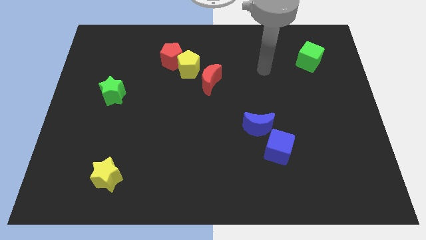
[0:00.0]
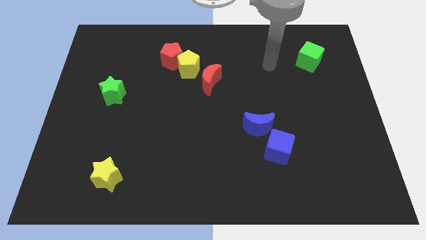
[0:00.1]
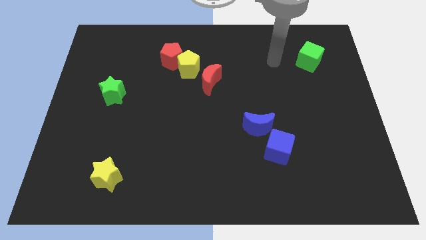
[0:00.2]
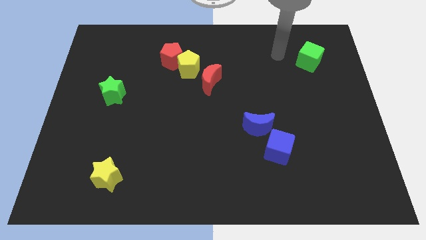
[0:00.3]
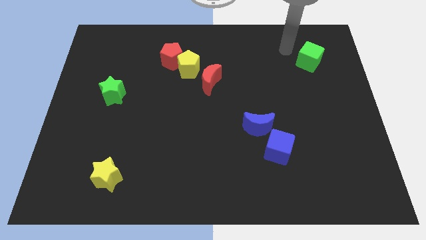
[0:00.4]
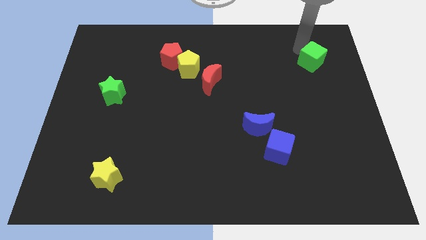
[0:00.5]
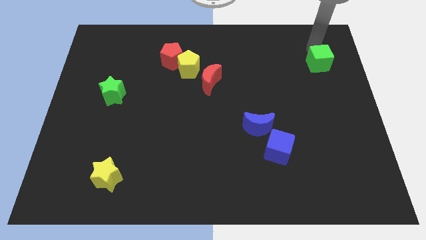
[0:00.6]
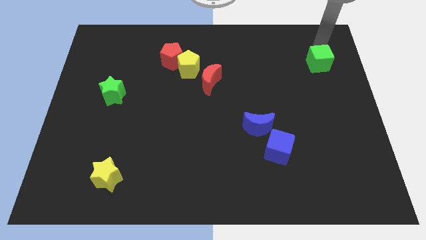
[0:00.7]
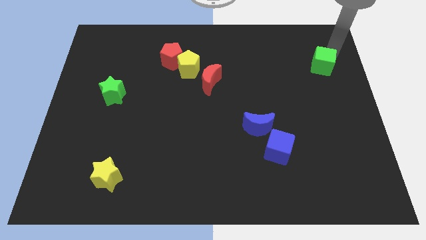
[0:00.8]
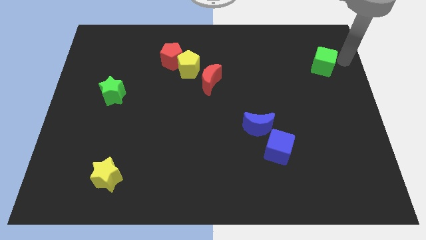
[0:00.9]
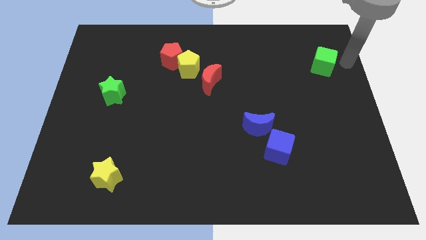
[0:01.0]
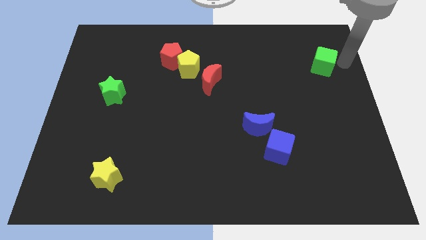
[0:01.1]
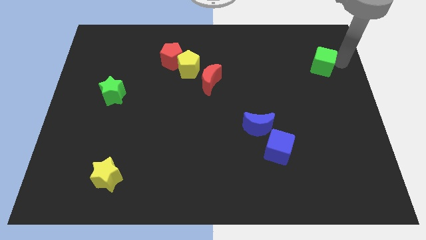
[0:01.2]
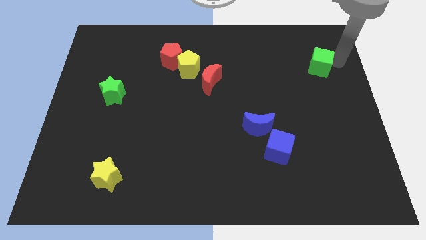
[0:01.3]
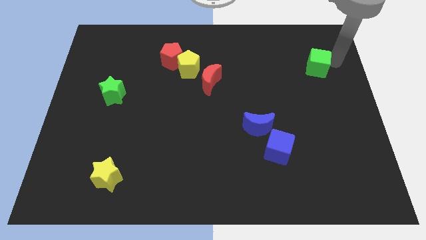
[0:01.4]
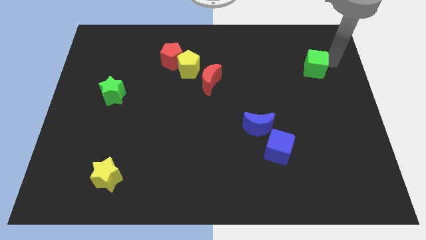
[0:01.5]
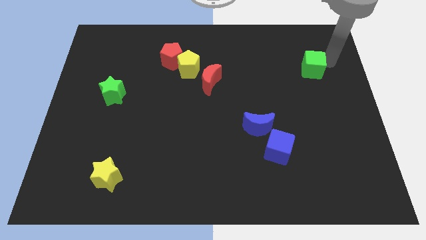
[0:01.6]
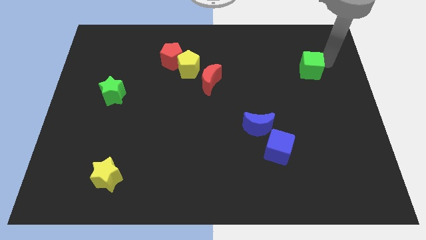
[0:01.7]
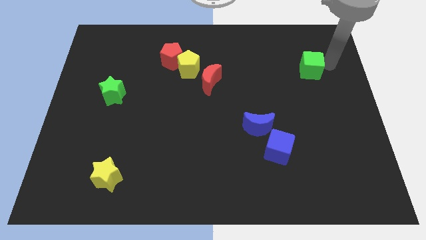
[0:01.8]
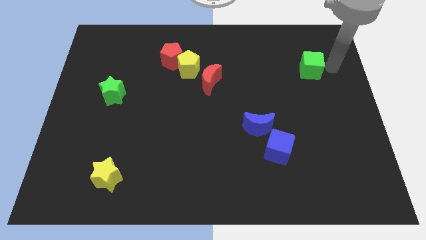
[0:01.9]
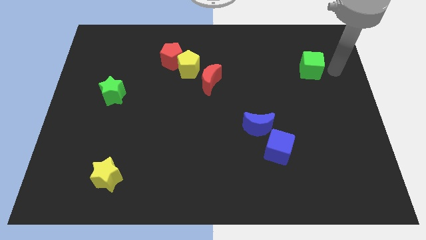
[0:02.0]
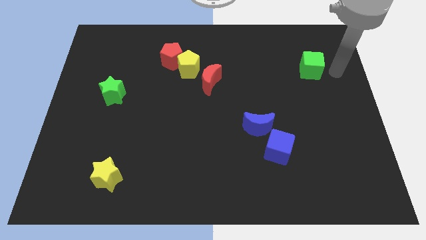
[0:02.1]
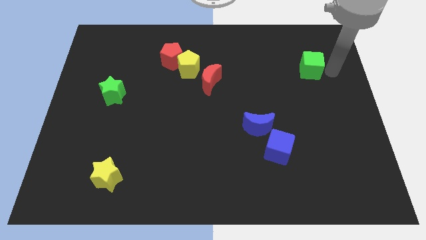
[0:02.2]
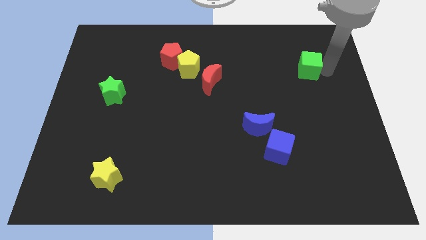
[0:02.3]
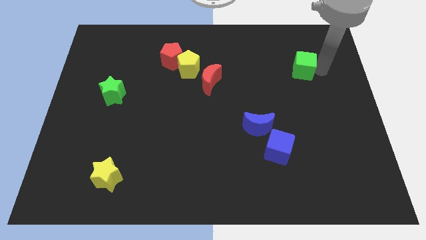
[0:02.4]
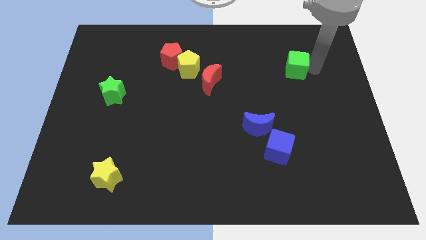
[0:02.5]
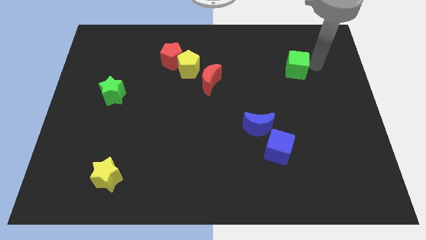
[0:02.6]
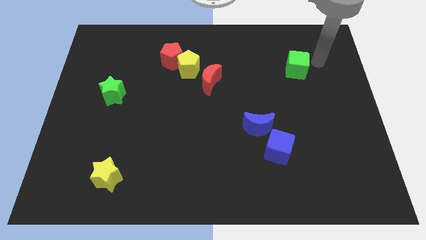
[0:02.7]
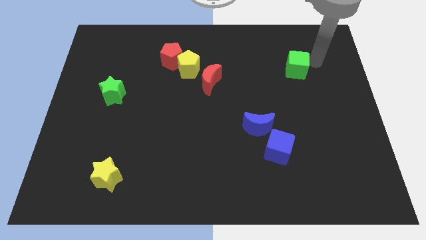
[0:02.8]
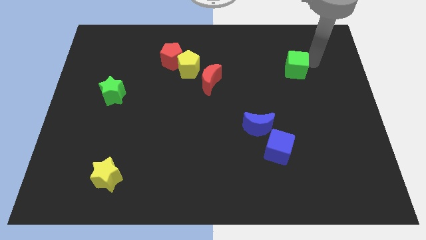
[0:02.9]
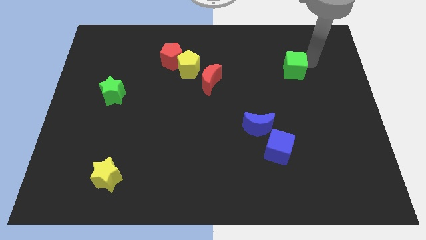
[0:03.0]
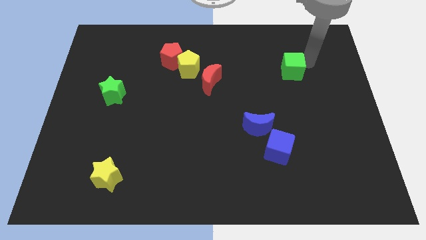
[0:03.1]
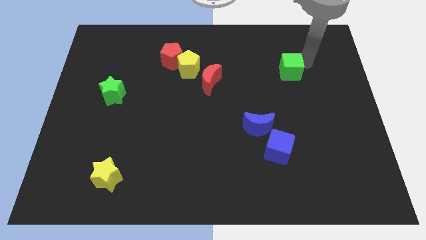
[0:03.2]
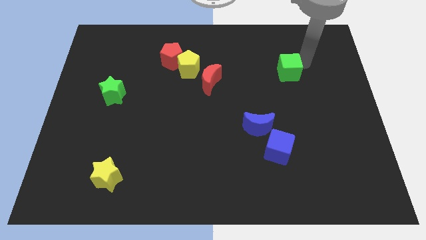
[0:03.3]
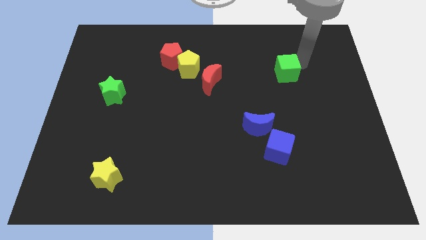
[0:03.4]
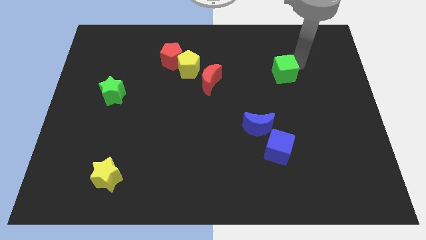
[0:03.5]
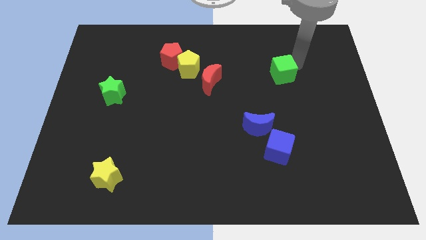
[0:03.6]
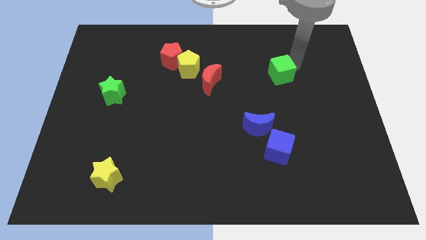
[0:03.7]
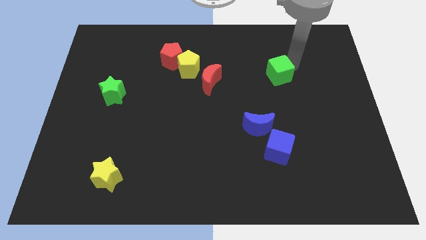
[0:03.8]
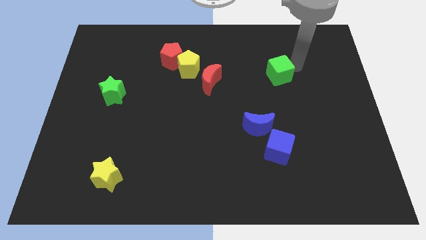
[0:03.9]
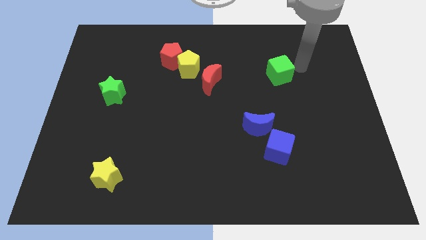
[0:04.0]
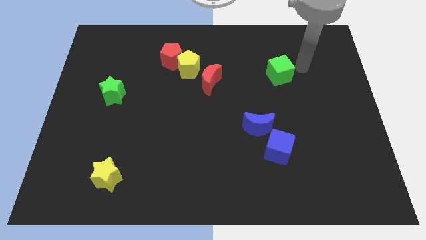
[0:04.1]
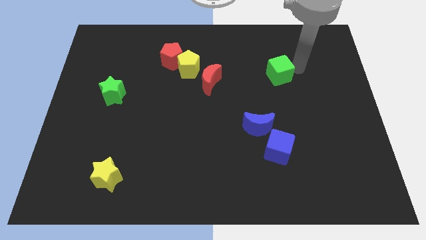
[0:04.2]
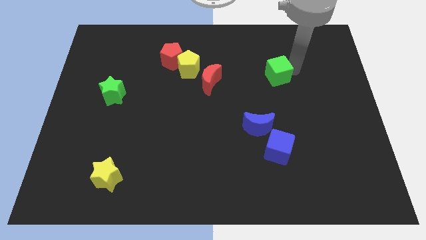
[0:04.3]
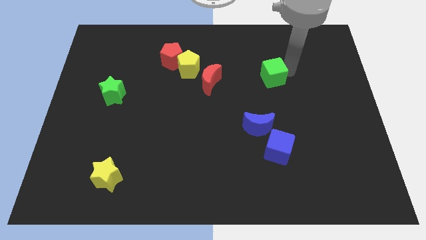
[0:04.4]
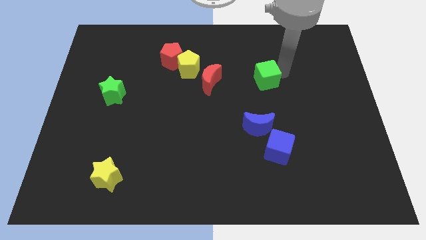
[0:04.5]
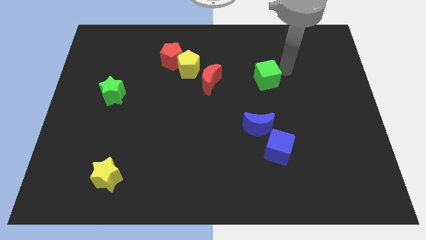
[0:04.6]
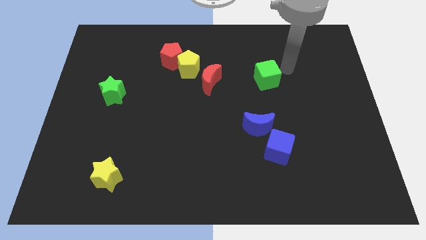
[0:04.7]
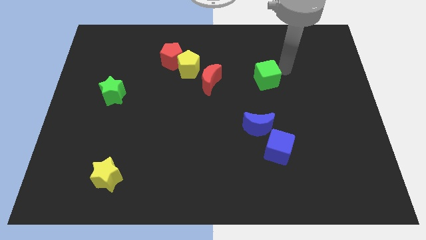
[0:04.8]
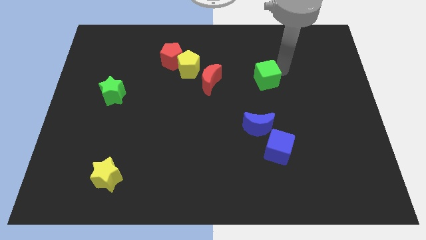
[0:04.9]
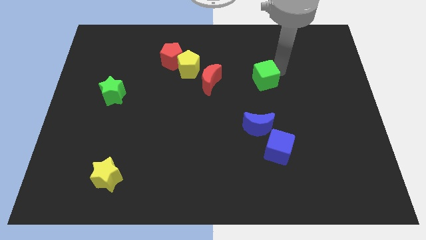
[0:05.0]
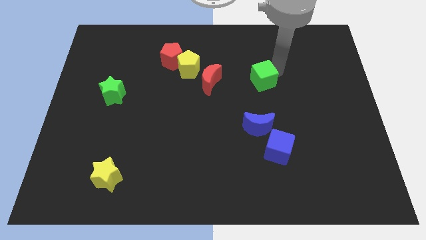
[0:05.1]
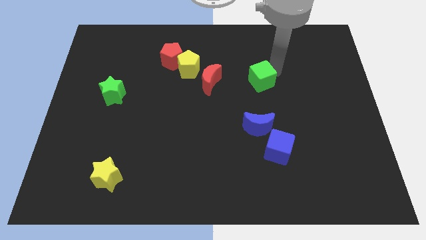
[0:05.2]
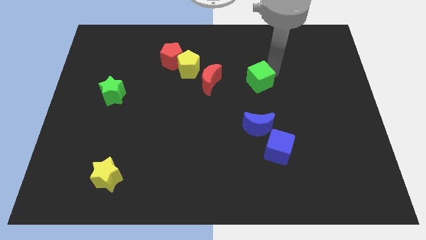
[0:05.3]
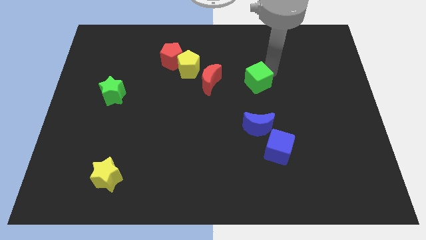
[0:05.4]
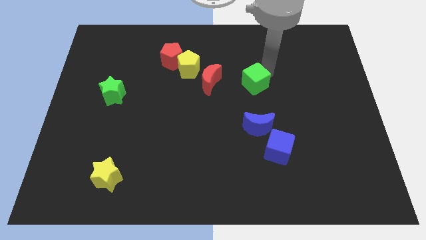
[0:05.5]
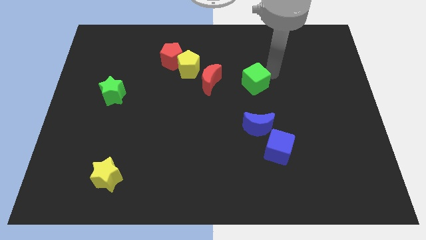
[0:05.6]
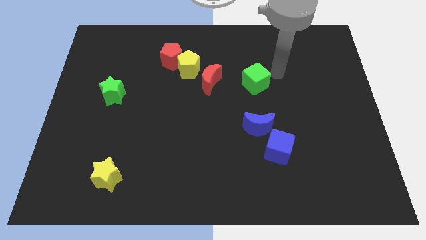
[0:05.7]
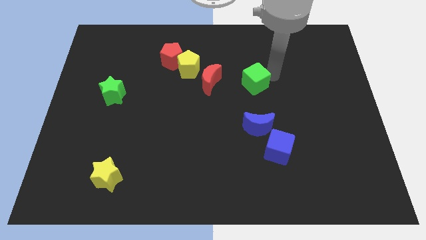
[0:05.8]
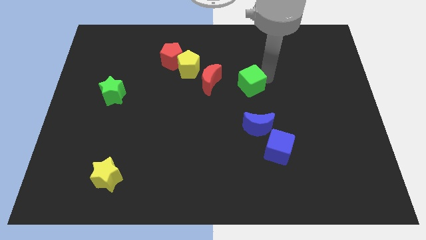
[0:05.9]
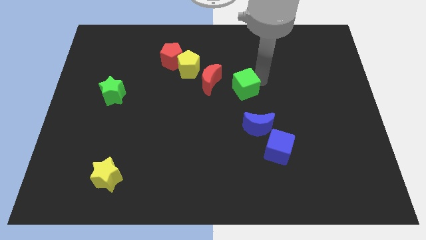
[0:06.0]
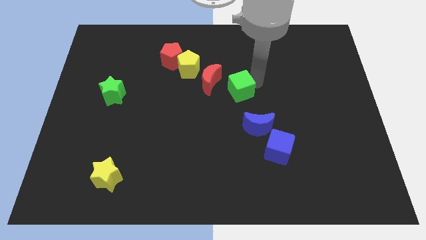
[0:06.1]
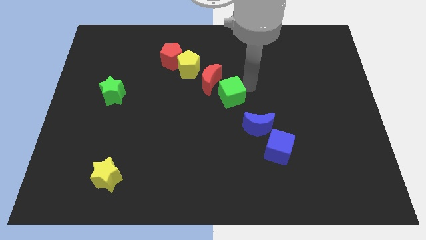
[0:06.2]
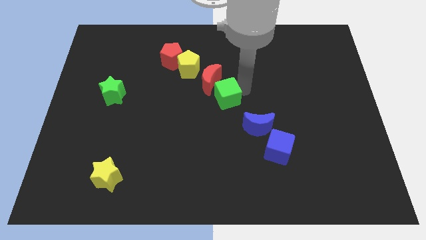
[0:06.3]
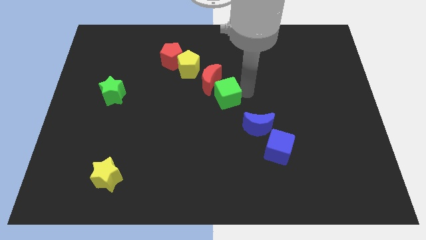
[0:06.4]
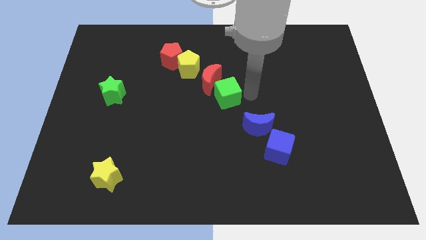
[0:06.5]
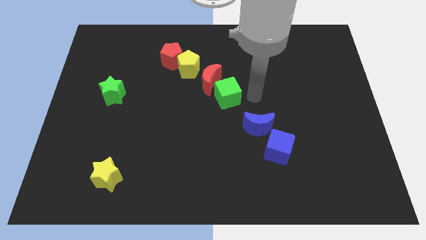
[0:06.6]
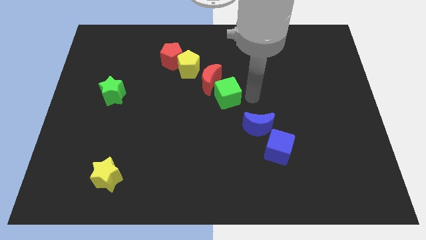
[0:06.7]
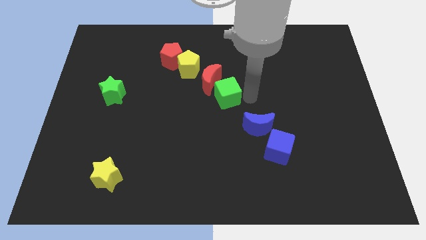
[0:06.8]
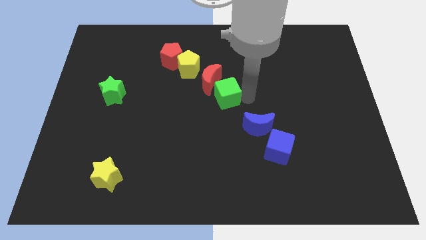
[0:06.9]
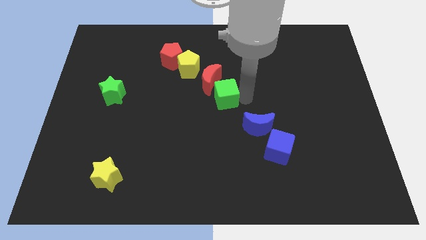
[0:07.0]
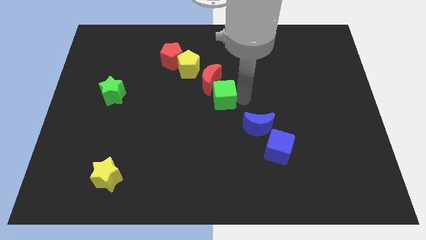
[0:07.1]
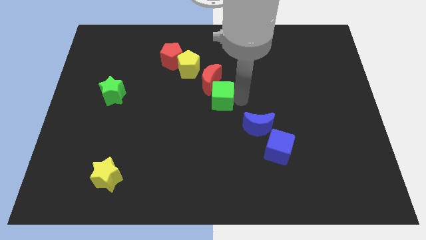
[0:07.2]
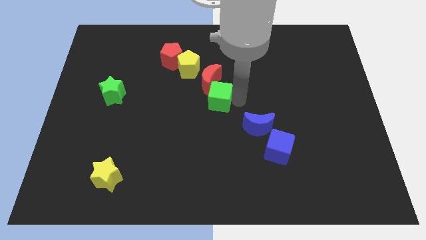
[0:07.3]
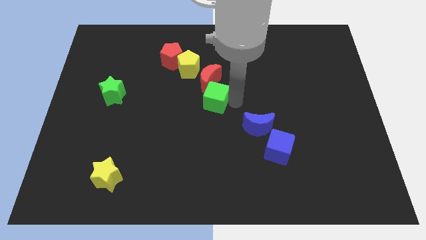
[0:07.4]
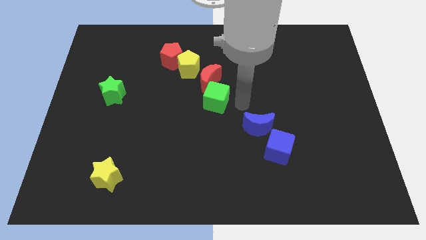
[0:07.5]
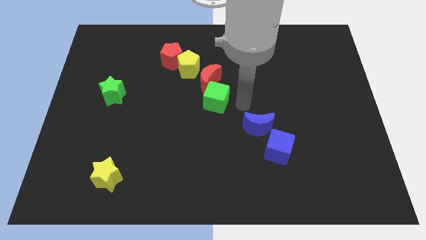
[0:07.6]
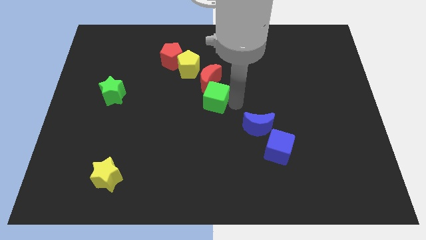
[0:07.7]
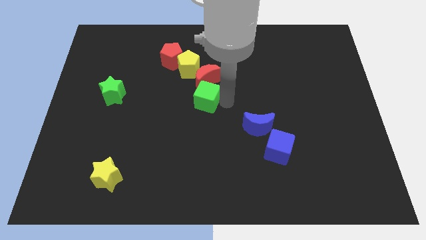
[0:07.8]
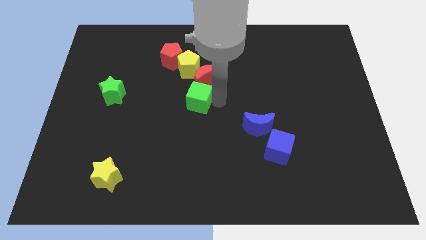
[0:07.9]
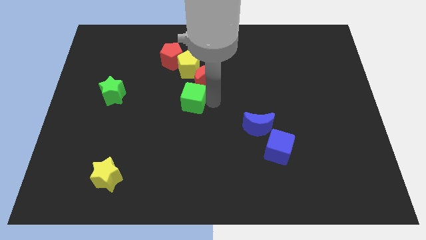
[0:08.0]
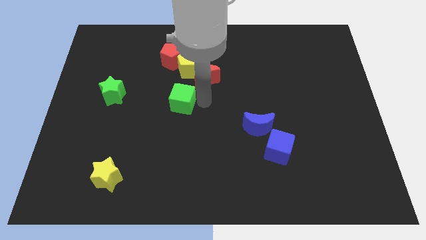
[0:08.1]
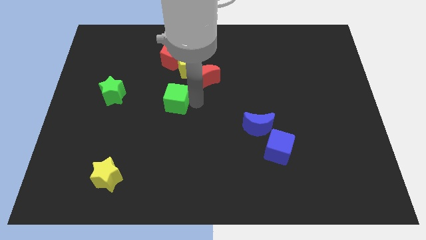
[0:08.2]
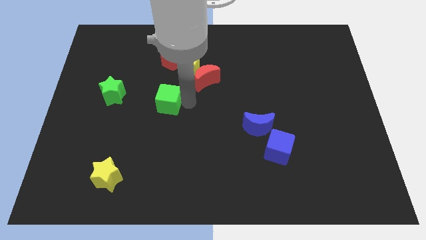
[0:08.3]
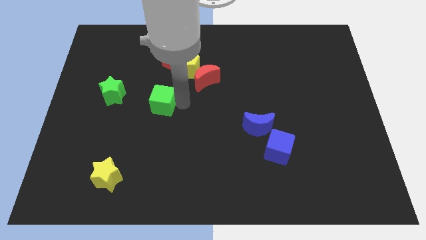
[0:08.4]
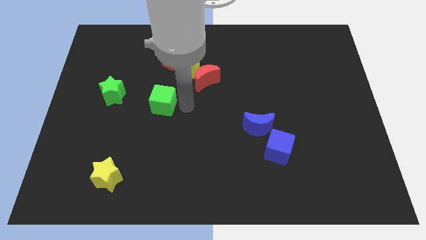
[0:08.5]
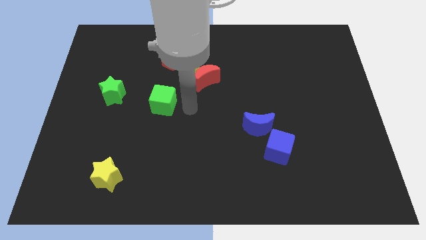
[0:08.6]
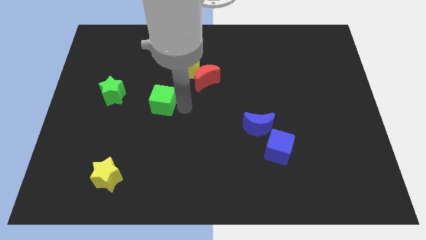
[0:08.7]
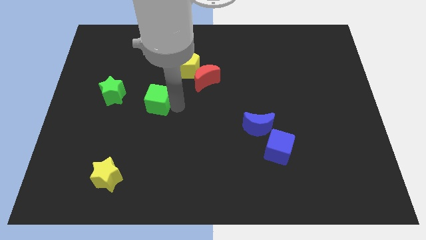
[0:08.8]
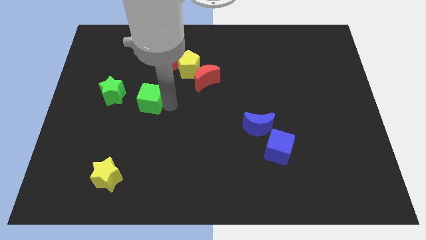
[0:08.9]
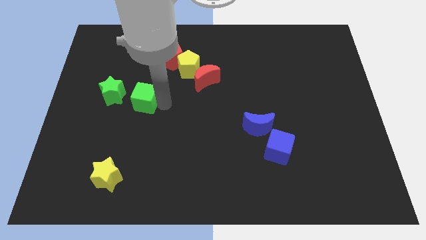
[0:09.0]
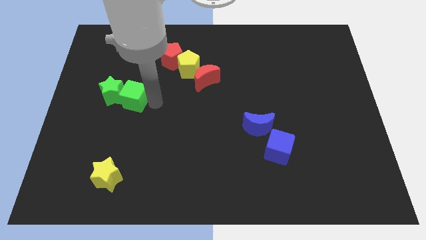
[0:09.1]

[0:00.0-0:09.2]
move the green cube towards the green star
